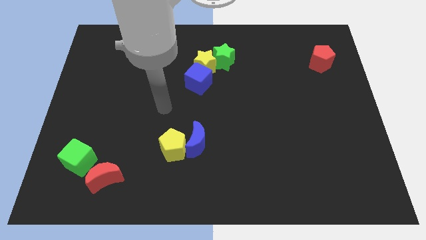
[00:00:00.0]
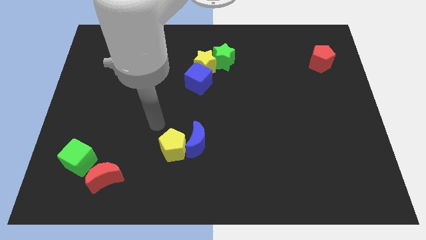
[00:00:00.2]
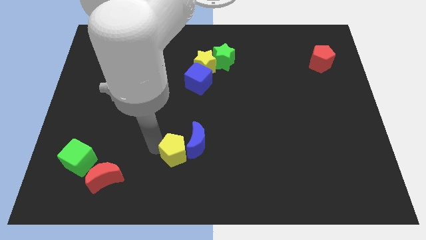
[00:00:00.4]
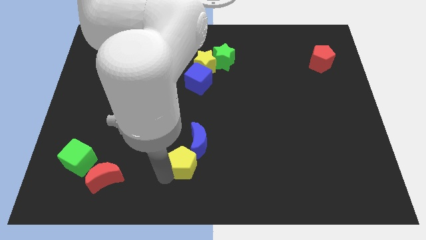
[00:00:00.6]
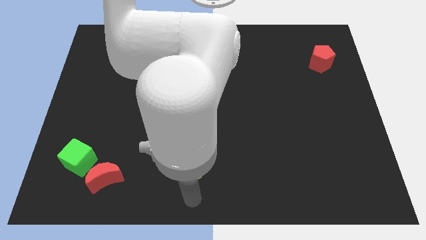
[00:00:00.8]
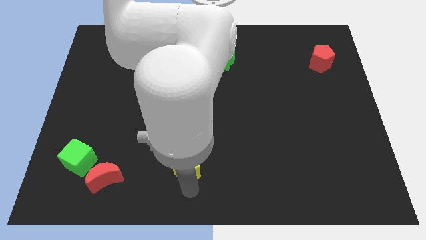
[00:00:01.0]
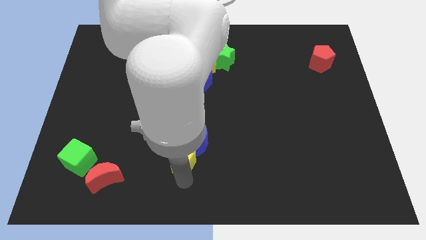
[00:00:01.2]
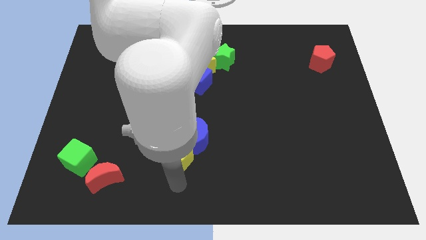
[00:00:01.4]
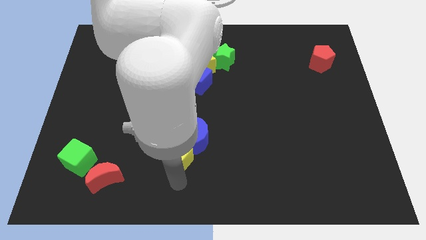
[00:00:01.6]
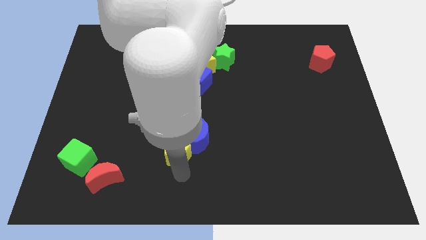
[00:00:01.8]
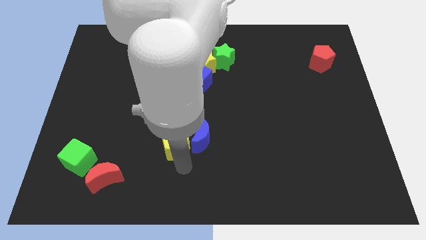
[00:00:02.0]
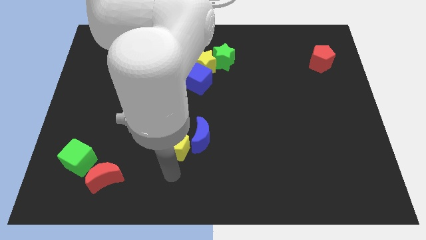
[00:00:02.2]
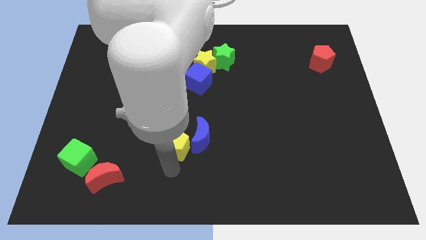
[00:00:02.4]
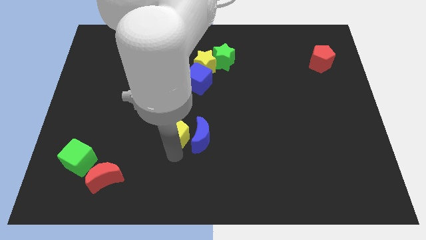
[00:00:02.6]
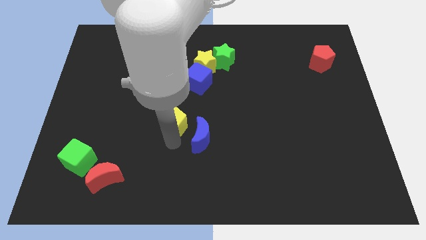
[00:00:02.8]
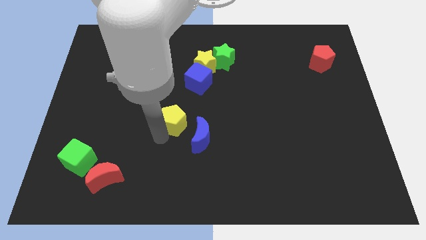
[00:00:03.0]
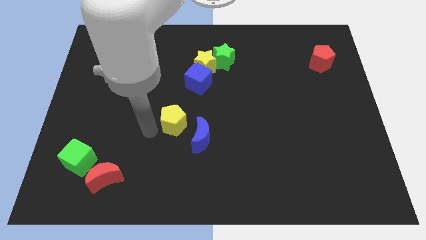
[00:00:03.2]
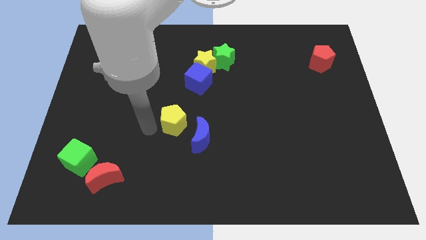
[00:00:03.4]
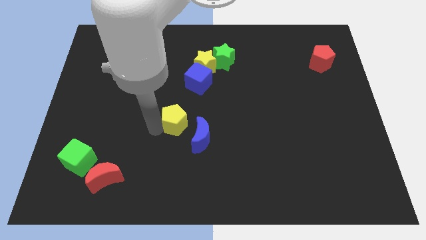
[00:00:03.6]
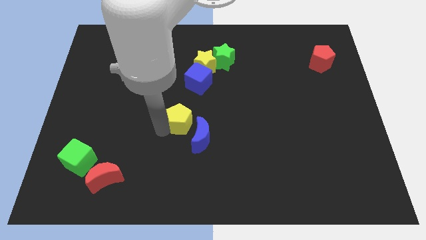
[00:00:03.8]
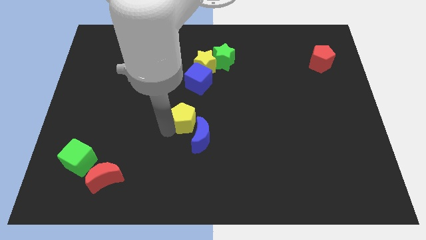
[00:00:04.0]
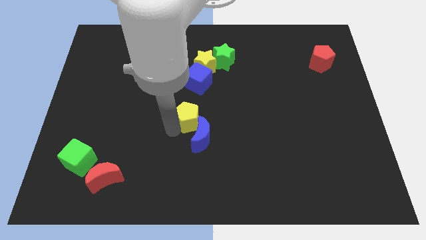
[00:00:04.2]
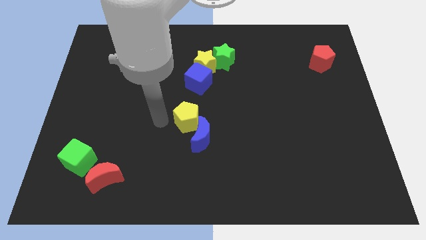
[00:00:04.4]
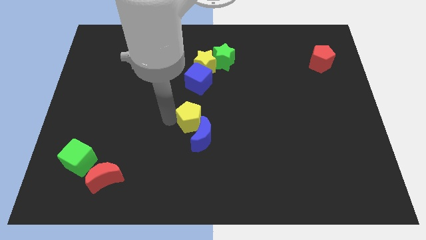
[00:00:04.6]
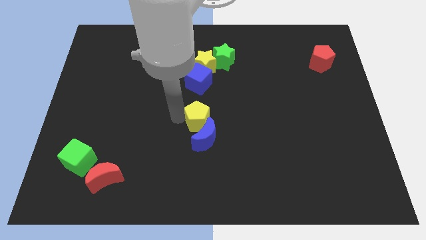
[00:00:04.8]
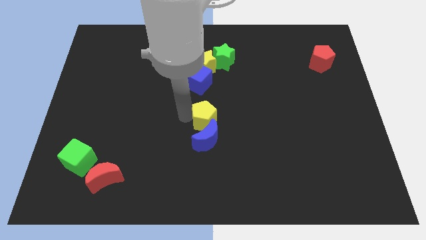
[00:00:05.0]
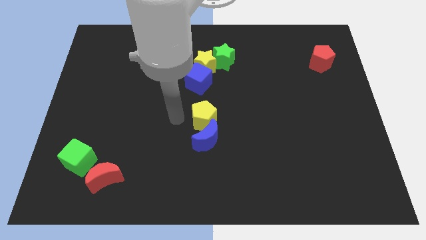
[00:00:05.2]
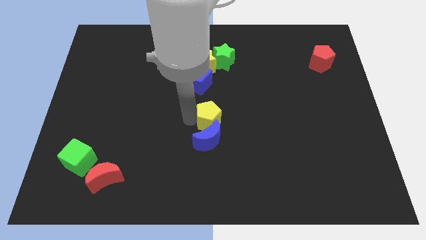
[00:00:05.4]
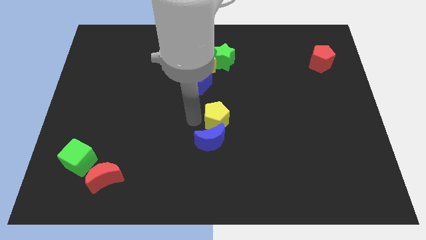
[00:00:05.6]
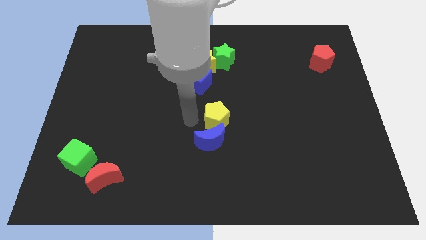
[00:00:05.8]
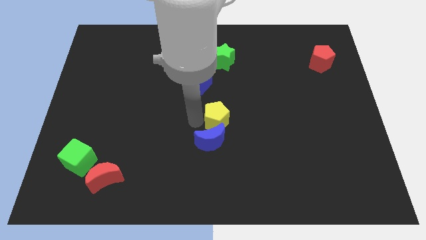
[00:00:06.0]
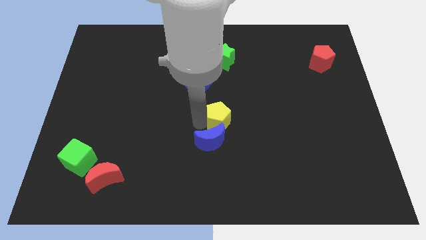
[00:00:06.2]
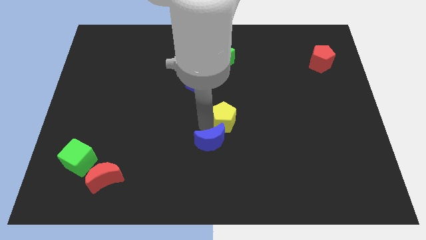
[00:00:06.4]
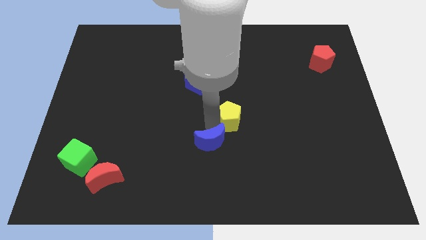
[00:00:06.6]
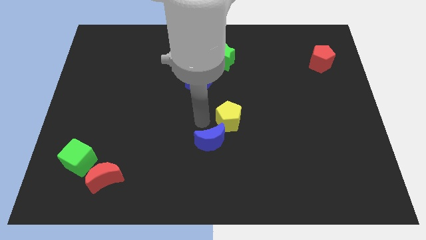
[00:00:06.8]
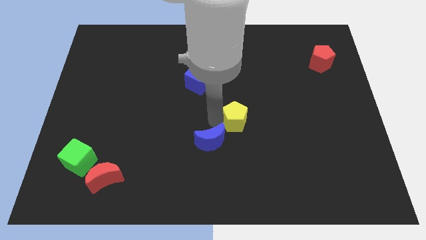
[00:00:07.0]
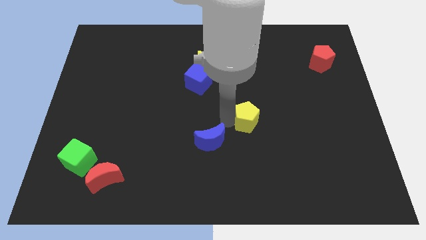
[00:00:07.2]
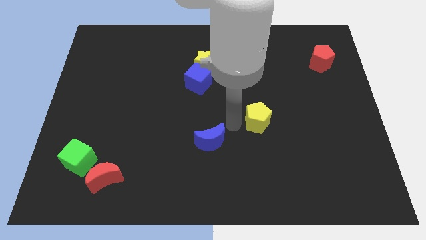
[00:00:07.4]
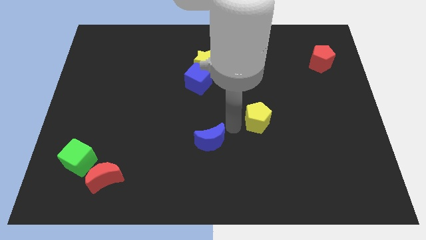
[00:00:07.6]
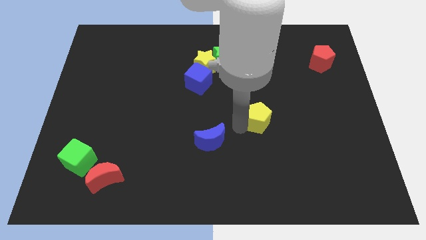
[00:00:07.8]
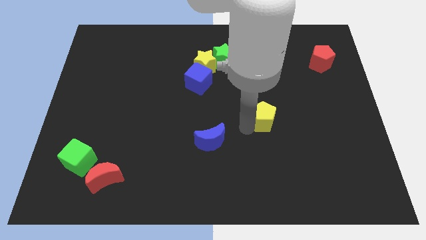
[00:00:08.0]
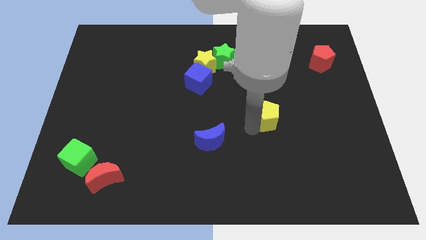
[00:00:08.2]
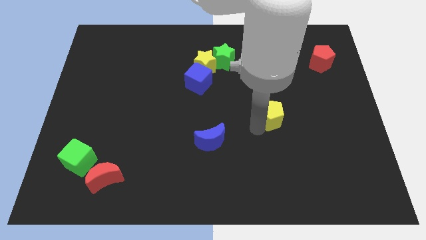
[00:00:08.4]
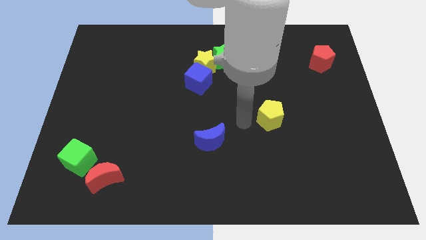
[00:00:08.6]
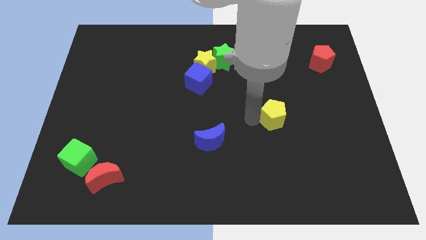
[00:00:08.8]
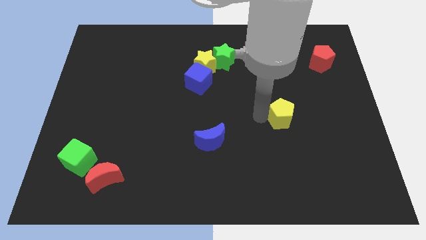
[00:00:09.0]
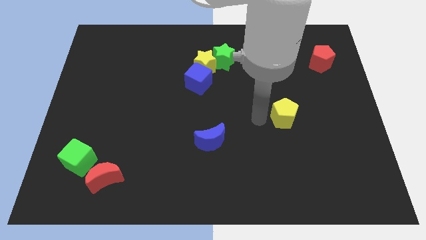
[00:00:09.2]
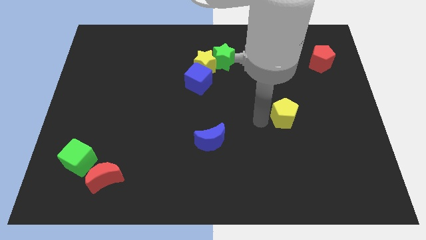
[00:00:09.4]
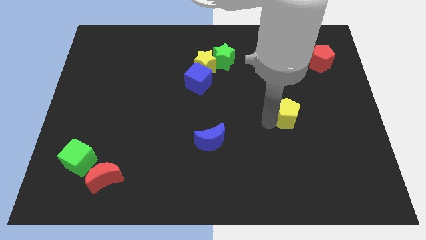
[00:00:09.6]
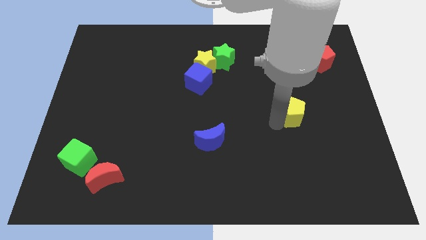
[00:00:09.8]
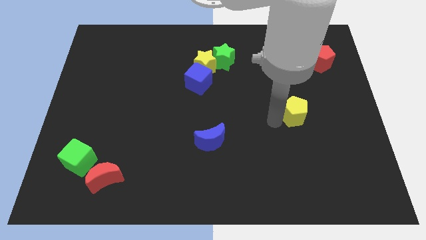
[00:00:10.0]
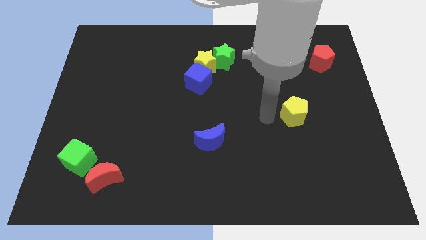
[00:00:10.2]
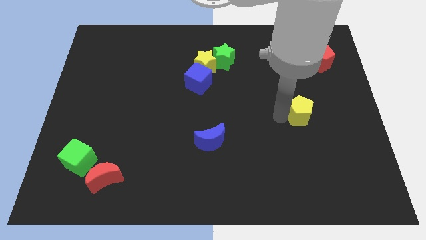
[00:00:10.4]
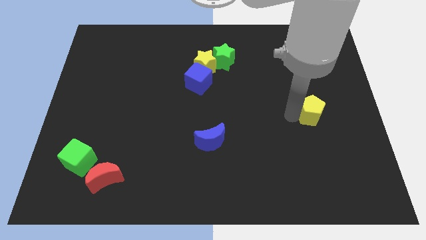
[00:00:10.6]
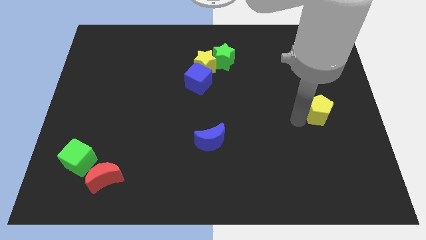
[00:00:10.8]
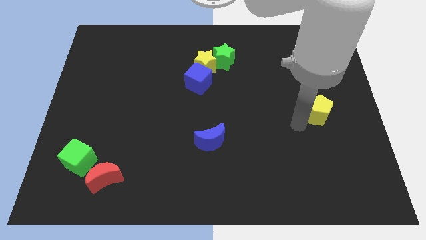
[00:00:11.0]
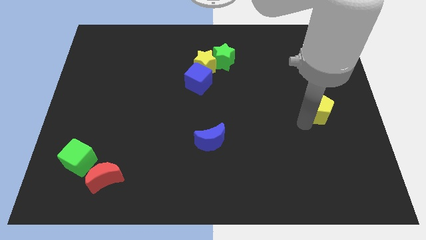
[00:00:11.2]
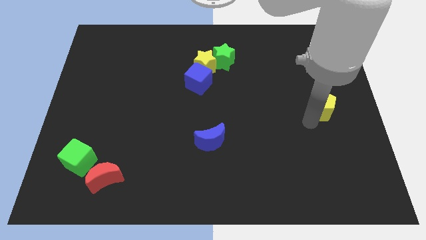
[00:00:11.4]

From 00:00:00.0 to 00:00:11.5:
move the yellow pentagon to the right side
